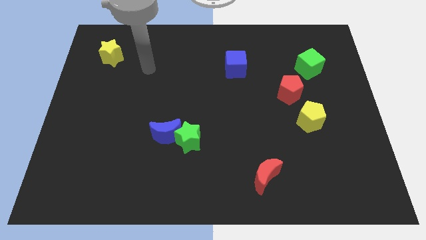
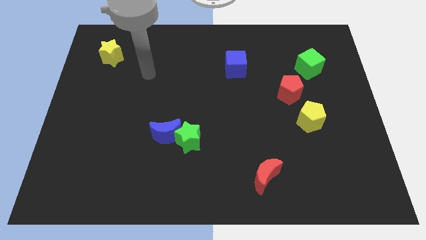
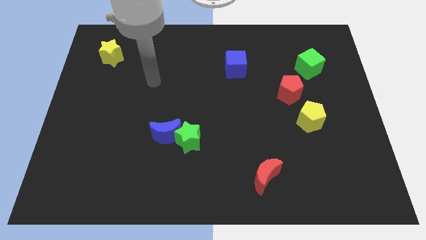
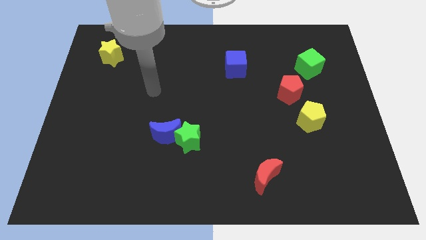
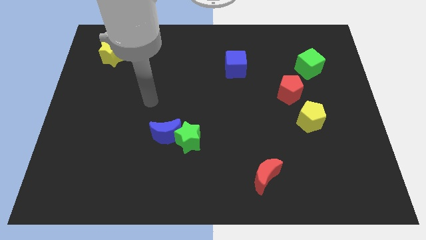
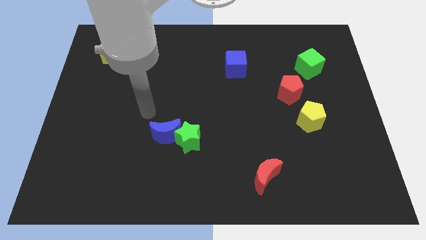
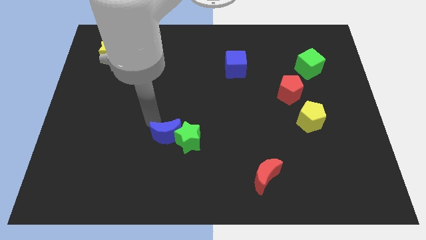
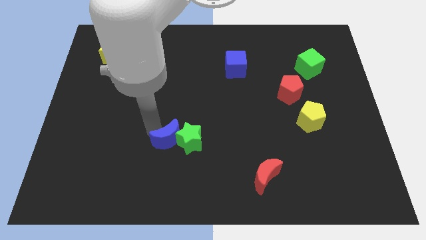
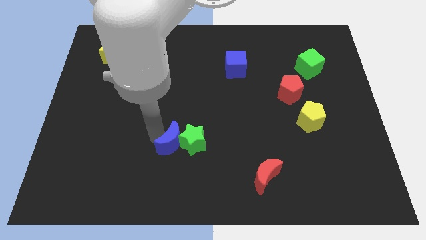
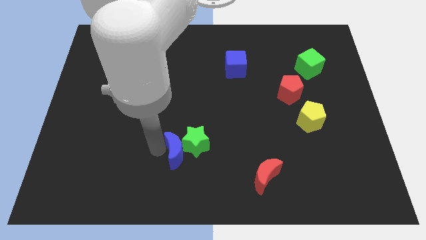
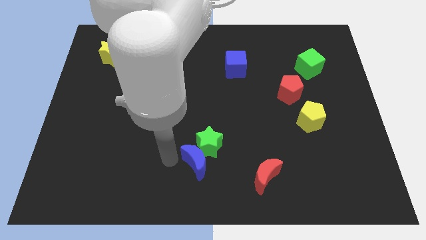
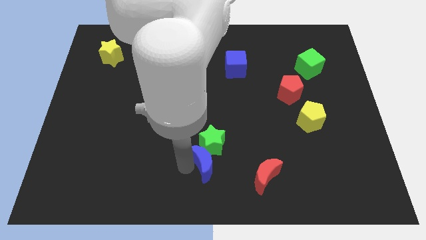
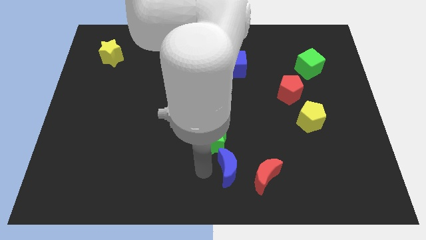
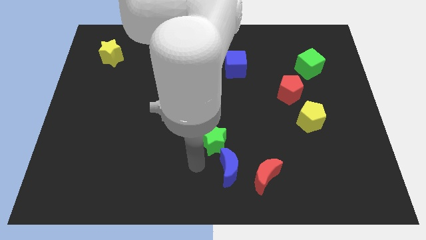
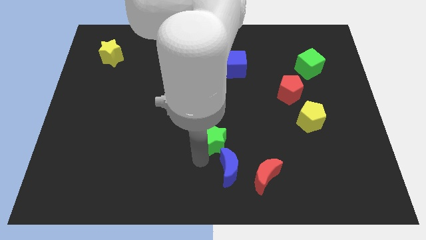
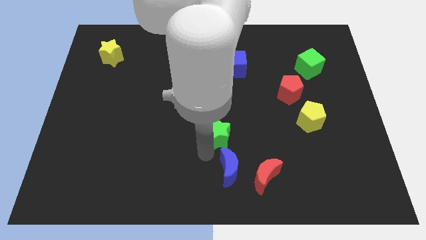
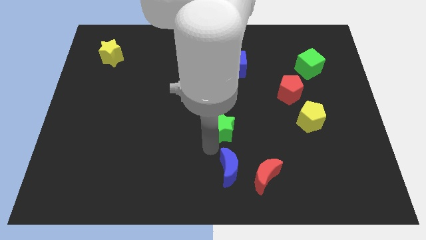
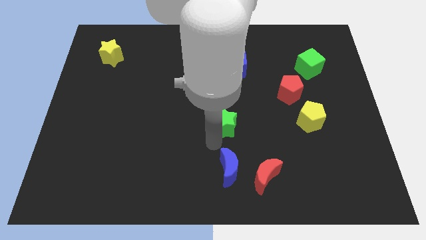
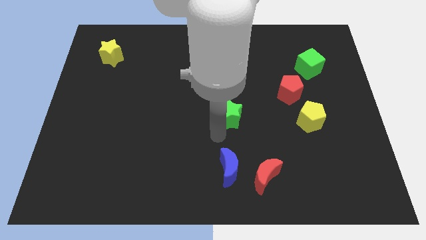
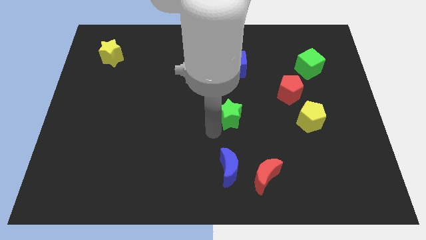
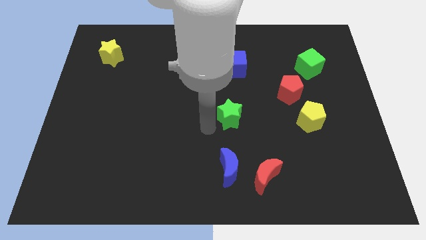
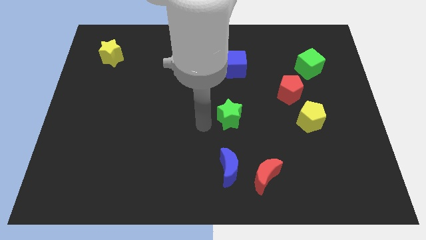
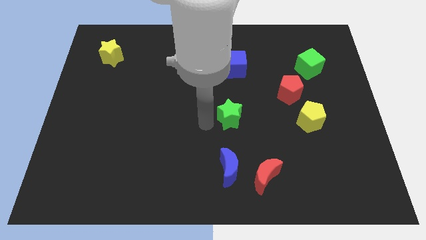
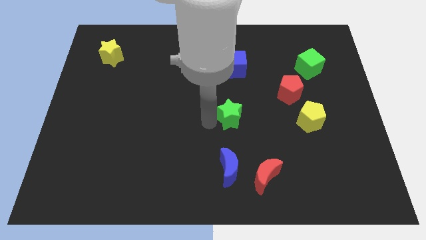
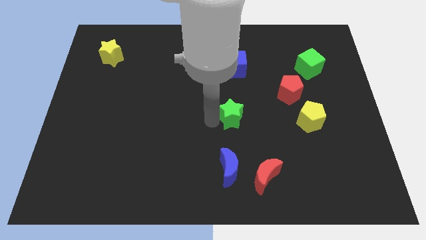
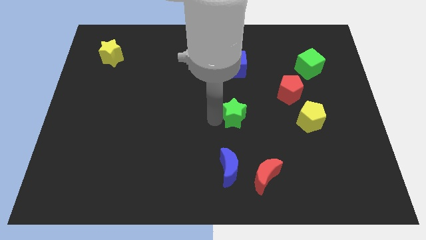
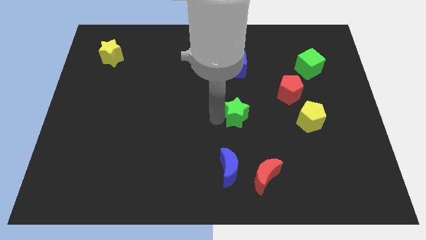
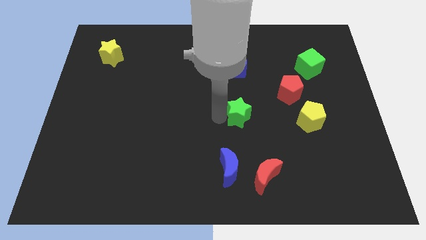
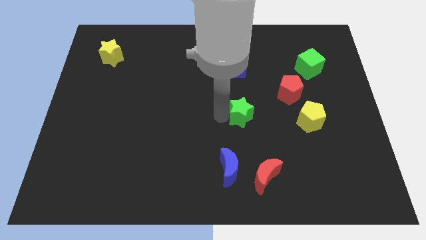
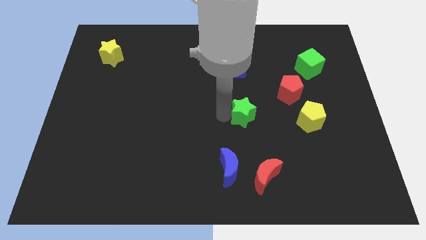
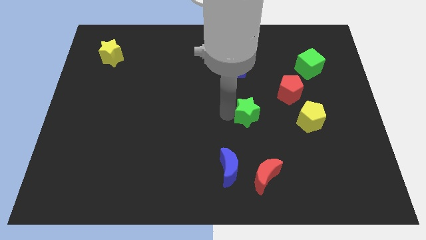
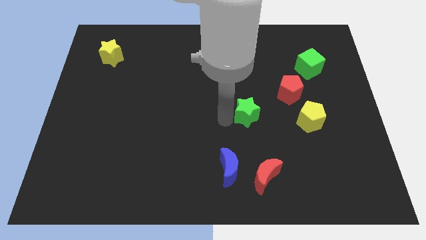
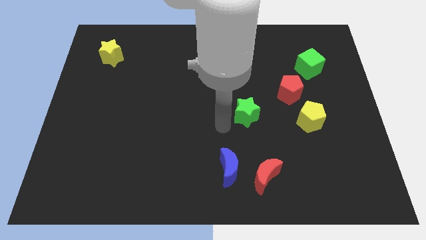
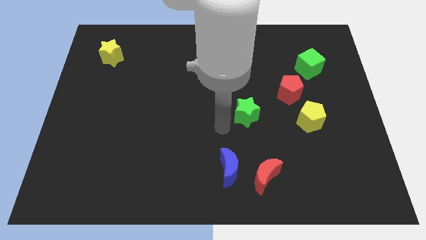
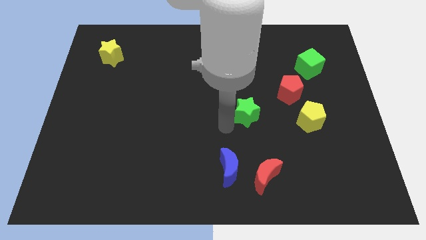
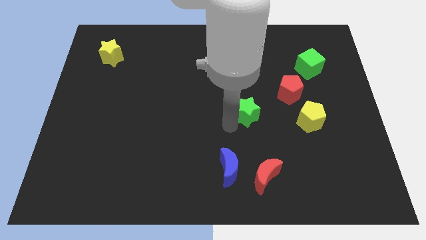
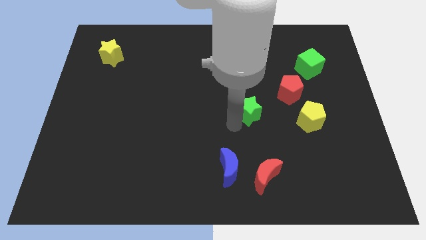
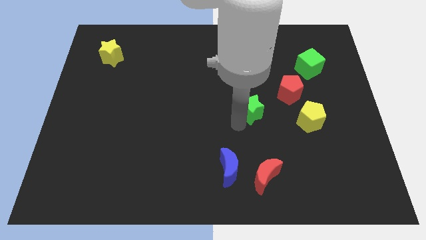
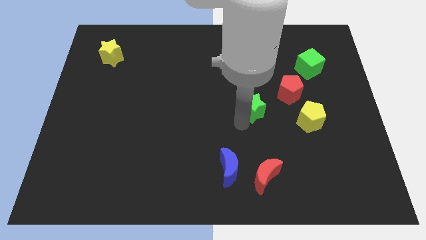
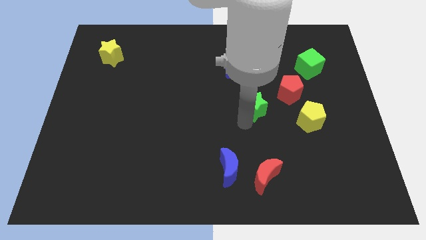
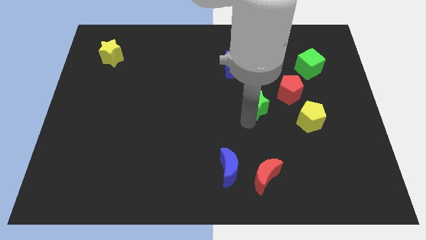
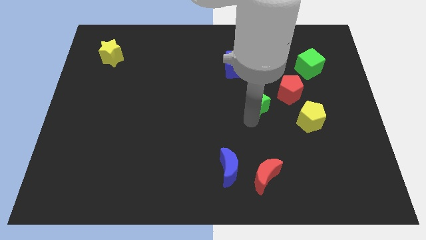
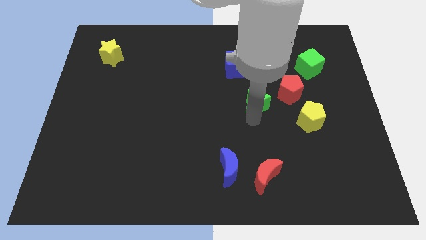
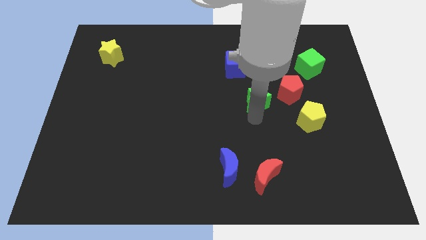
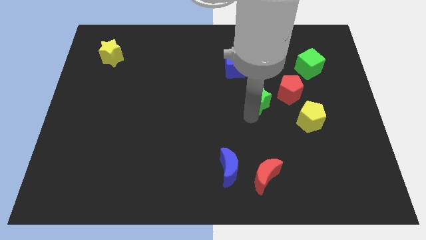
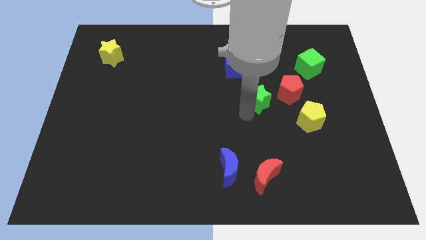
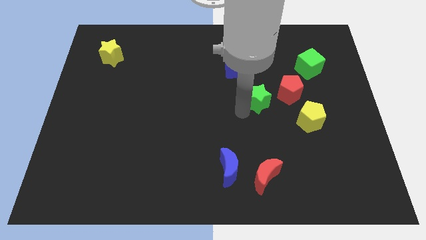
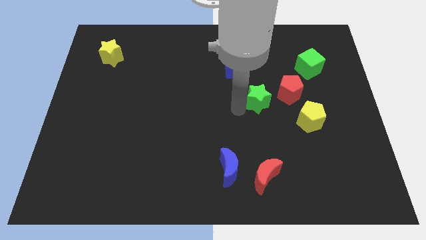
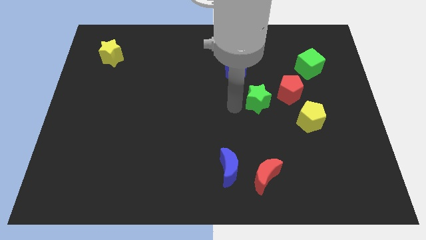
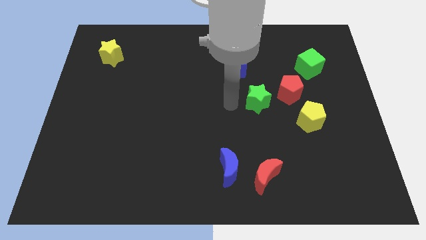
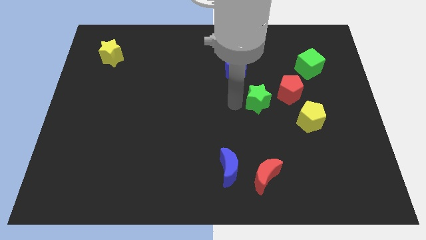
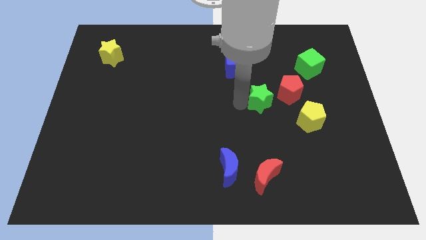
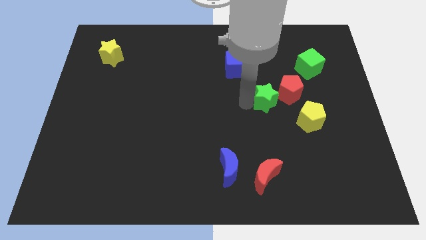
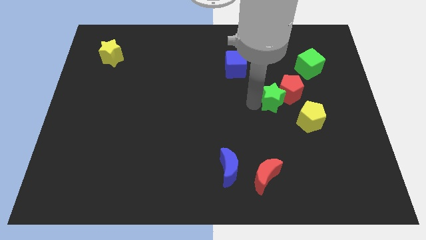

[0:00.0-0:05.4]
put the green star close to the red pentagon

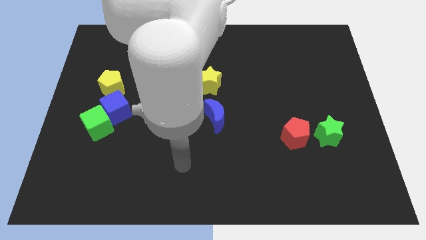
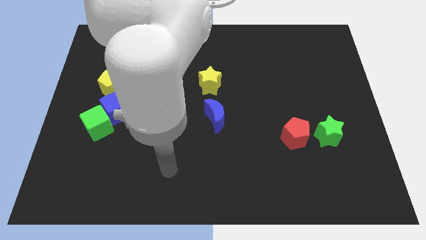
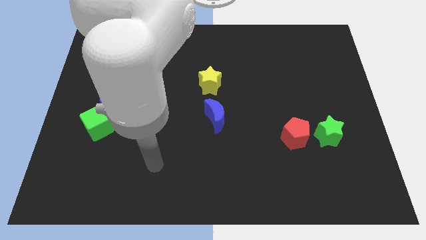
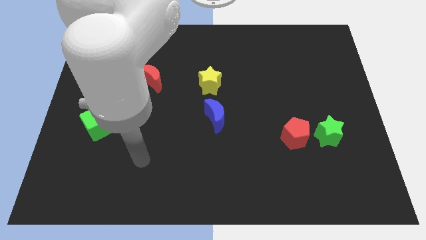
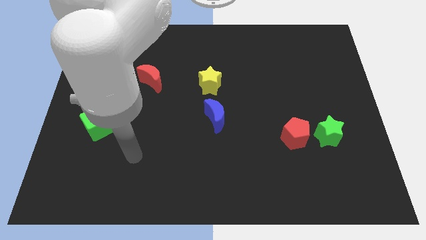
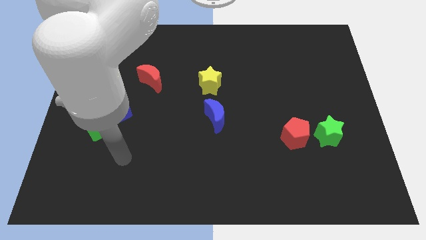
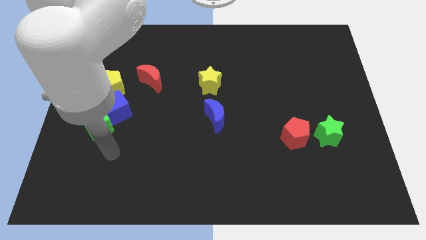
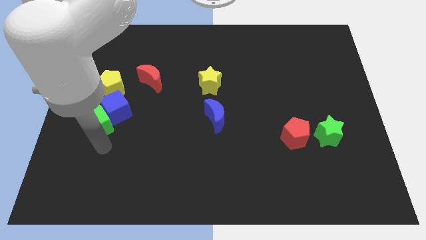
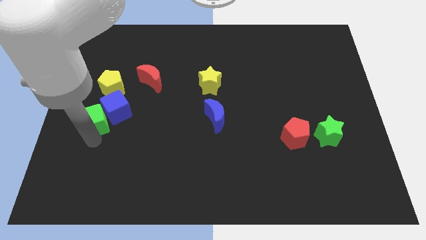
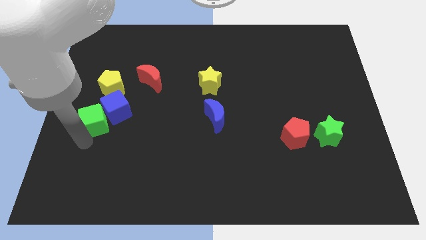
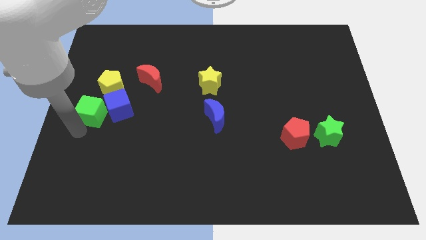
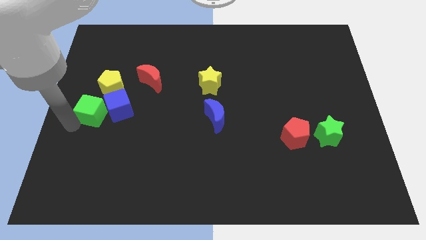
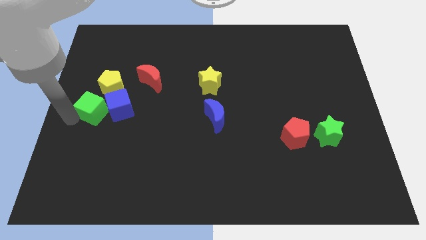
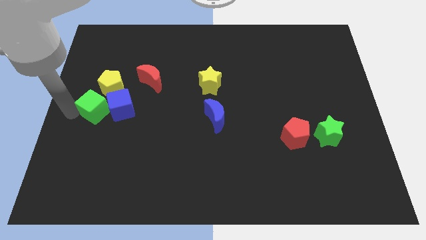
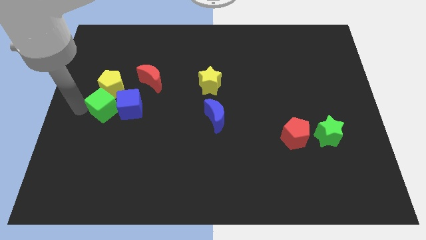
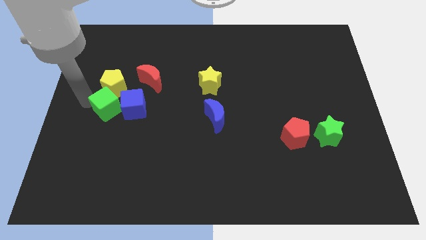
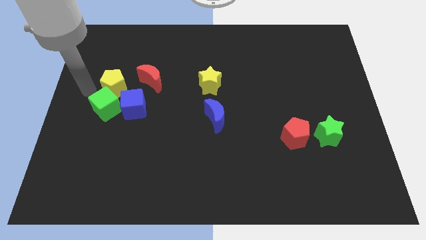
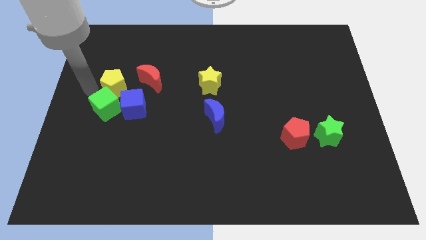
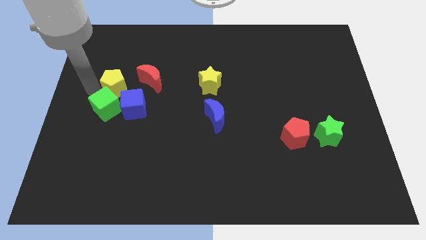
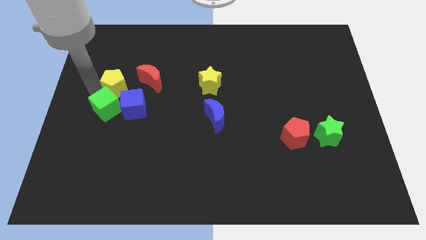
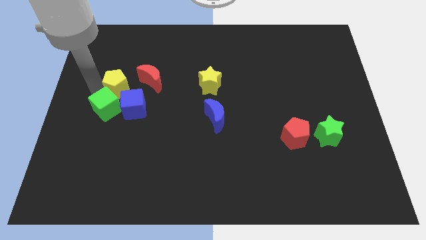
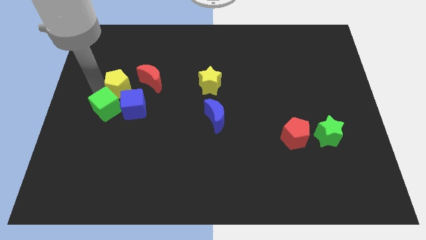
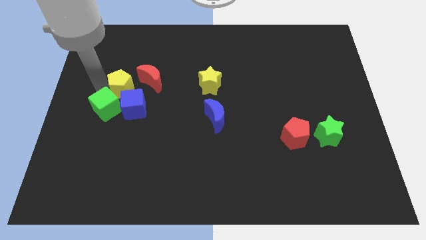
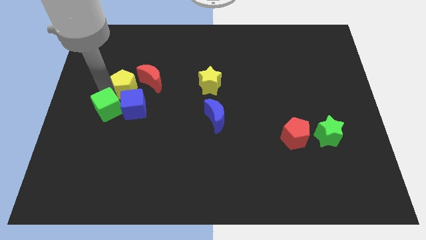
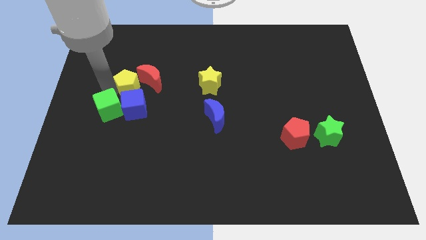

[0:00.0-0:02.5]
put the yellow pentagon next to the red moon
